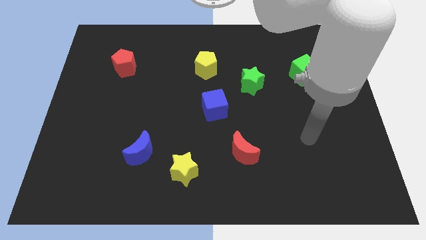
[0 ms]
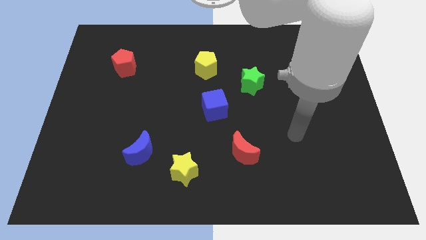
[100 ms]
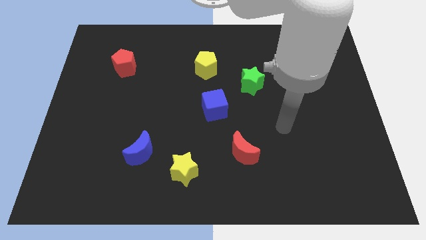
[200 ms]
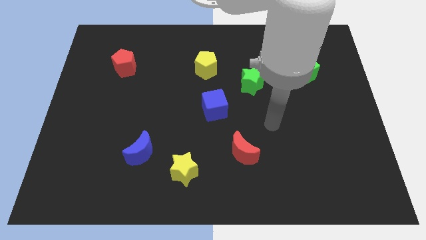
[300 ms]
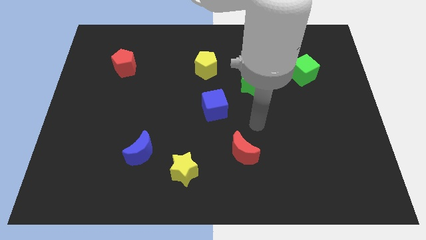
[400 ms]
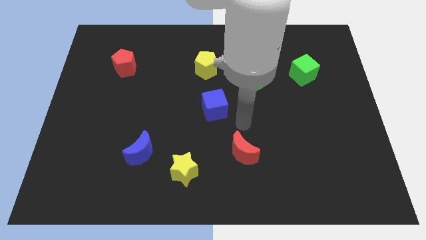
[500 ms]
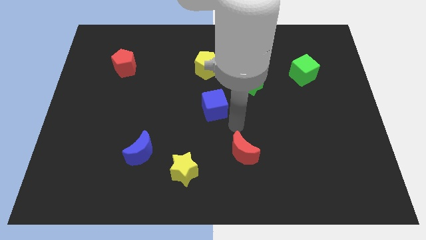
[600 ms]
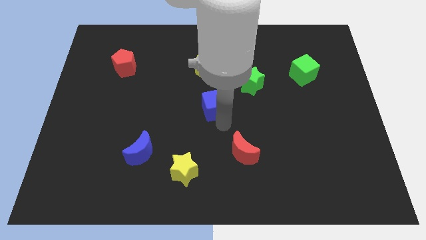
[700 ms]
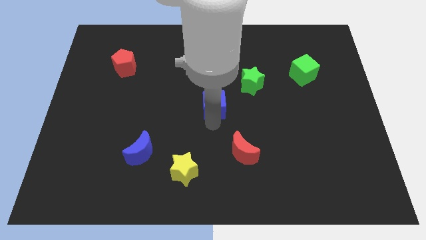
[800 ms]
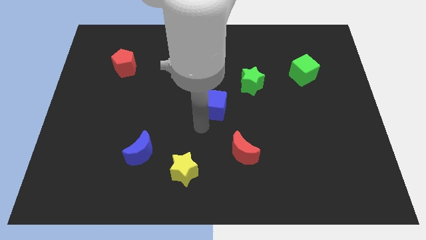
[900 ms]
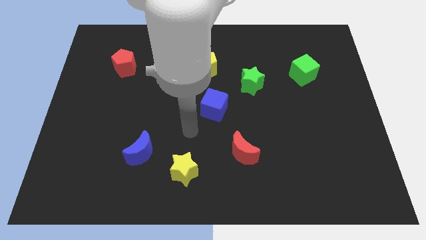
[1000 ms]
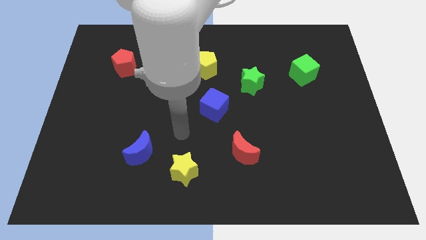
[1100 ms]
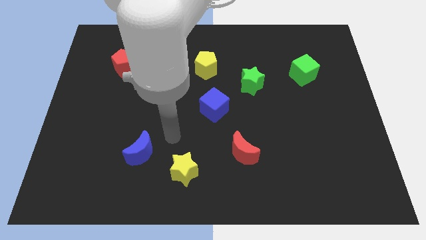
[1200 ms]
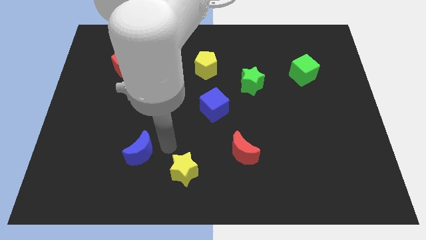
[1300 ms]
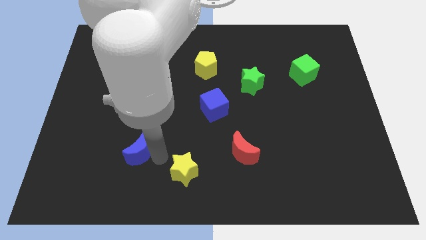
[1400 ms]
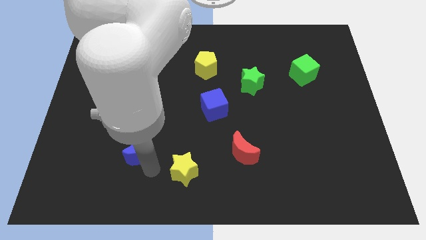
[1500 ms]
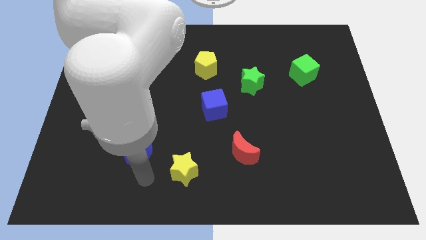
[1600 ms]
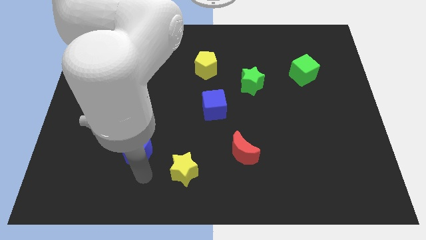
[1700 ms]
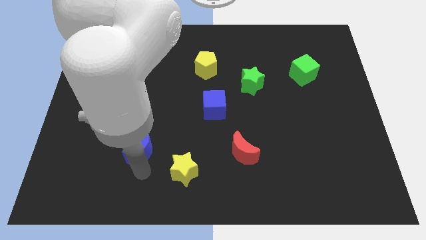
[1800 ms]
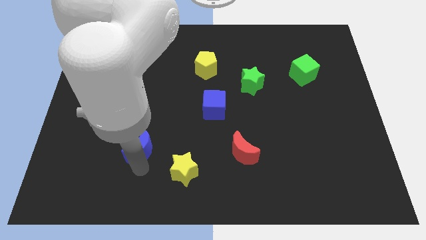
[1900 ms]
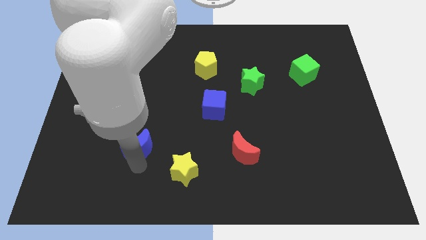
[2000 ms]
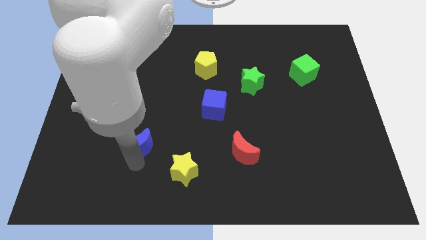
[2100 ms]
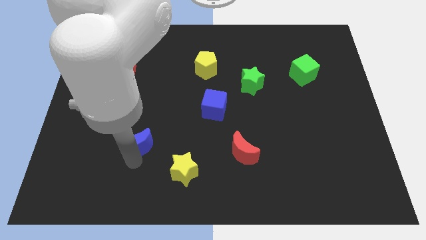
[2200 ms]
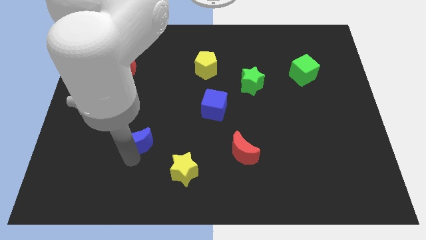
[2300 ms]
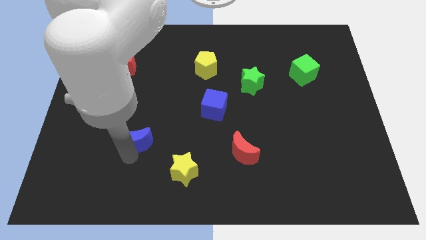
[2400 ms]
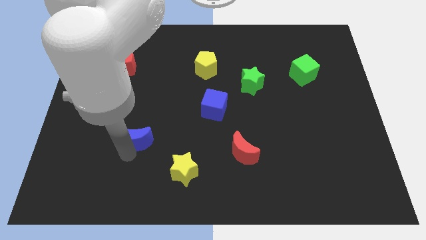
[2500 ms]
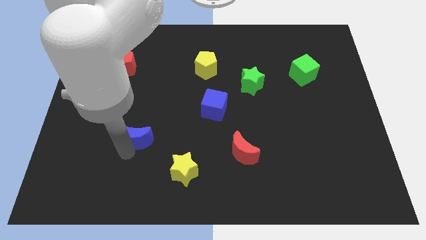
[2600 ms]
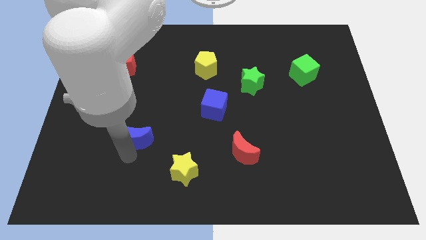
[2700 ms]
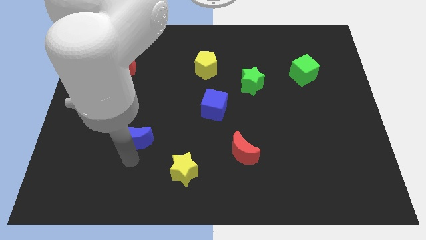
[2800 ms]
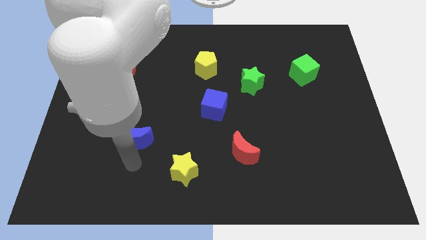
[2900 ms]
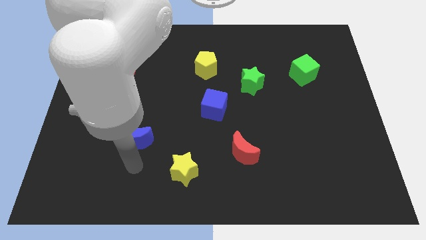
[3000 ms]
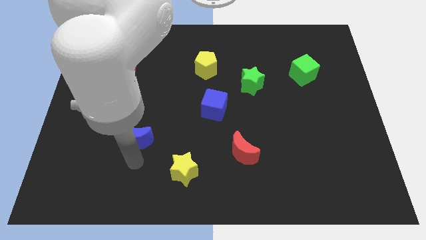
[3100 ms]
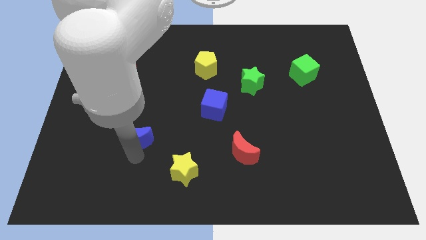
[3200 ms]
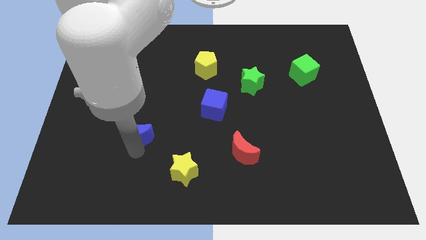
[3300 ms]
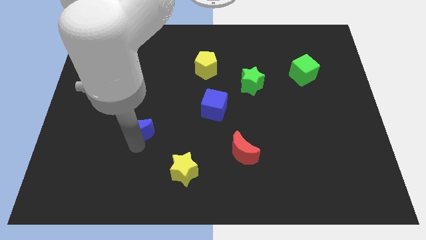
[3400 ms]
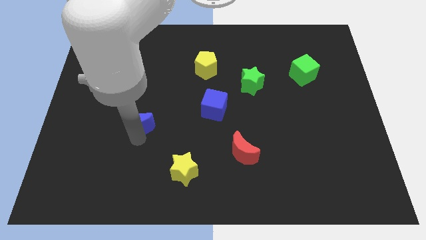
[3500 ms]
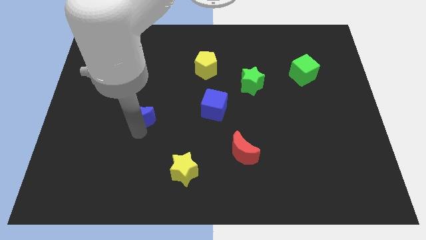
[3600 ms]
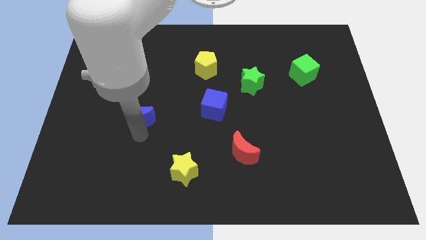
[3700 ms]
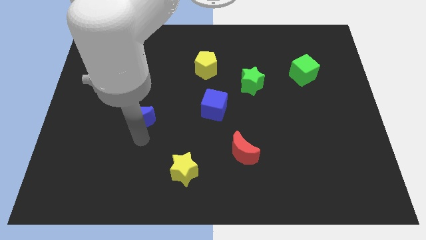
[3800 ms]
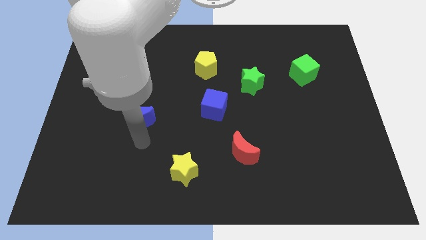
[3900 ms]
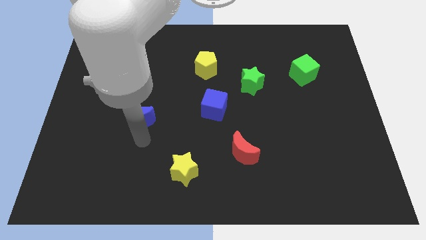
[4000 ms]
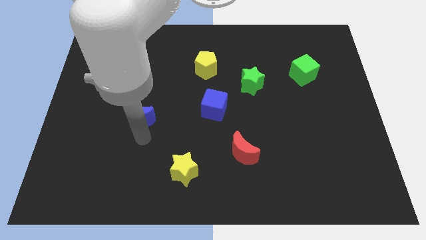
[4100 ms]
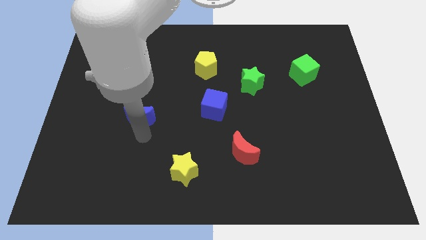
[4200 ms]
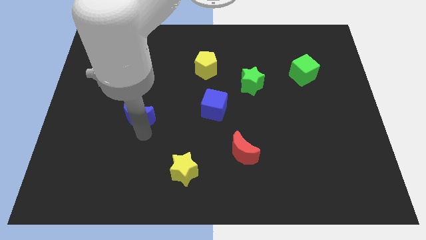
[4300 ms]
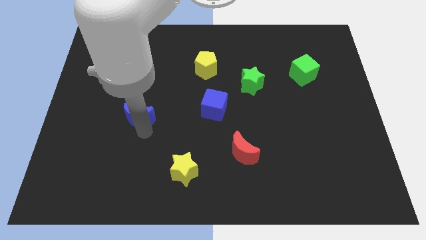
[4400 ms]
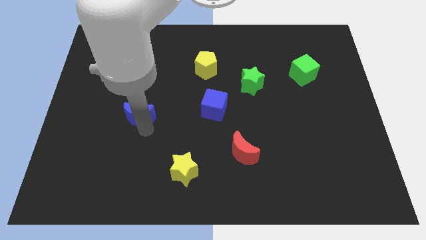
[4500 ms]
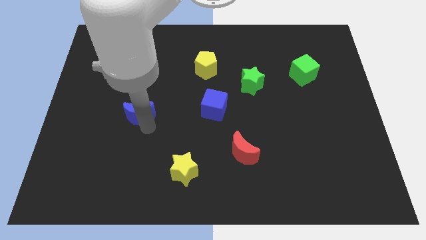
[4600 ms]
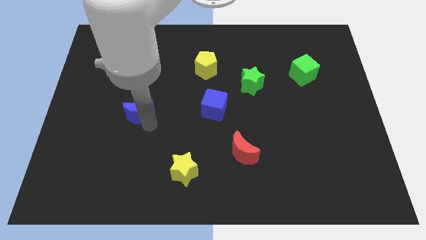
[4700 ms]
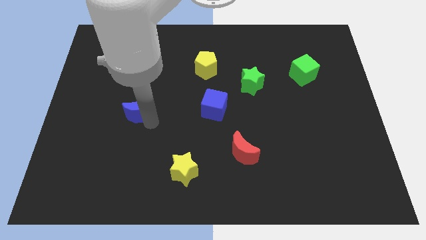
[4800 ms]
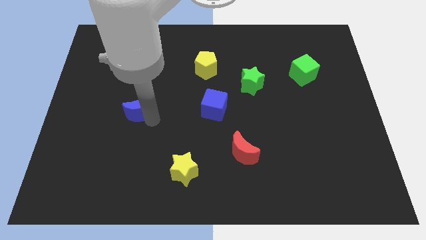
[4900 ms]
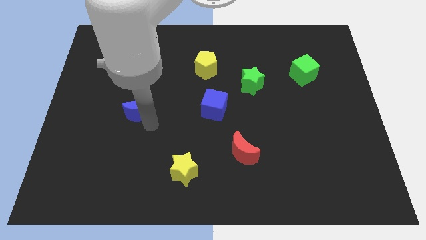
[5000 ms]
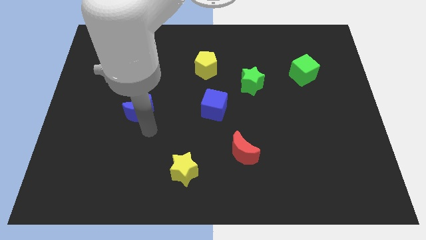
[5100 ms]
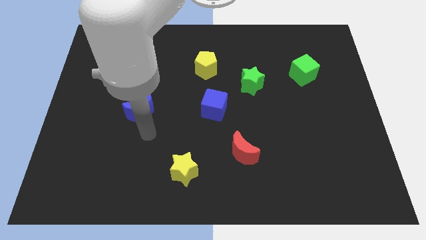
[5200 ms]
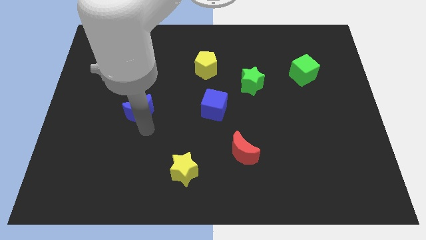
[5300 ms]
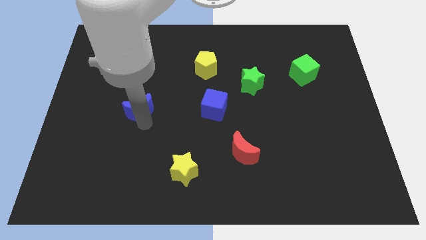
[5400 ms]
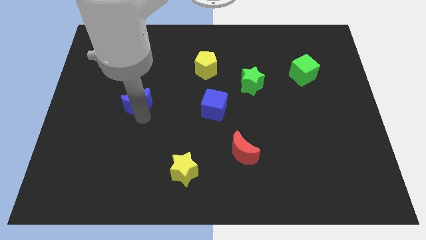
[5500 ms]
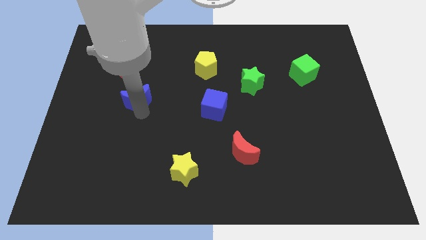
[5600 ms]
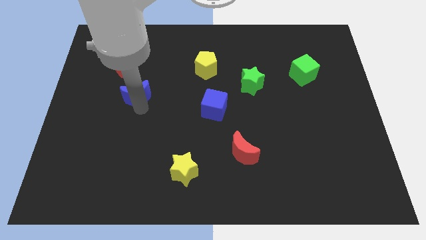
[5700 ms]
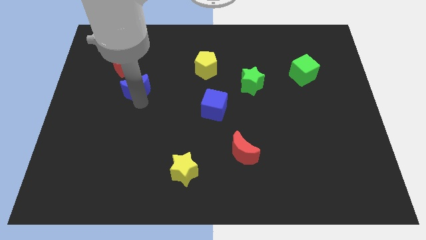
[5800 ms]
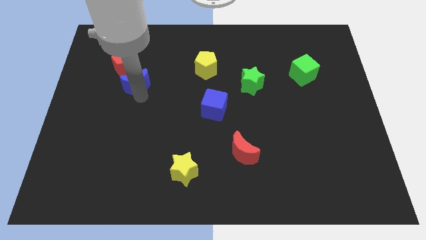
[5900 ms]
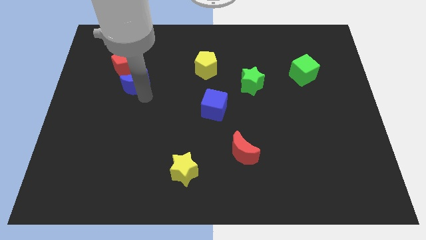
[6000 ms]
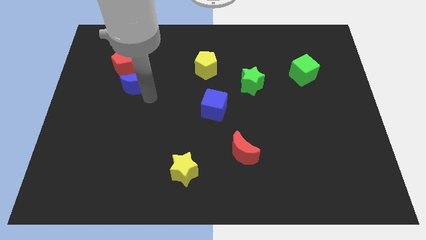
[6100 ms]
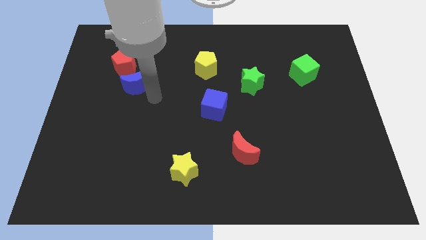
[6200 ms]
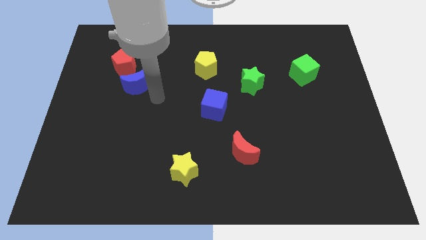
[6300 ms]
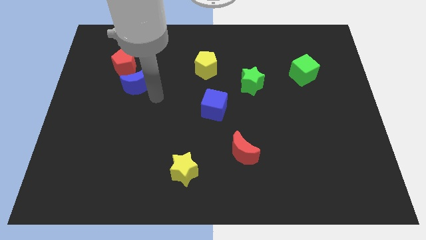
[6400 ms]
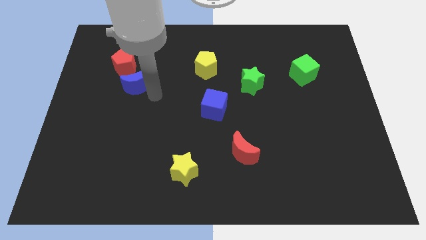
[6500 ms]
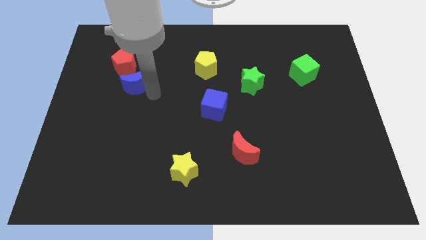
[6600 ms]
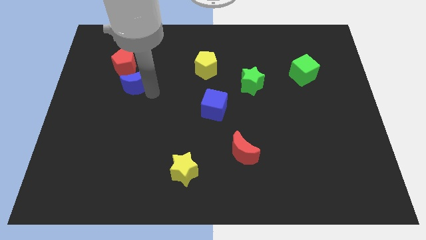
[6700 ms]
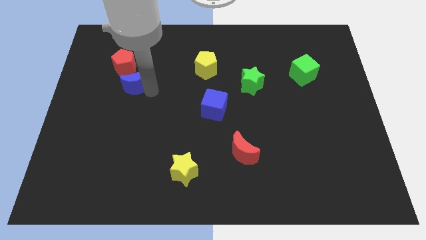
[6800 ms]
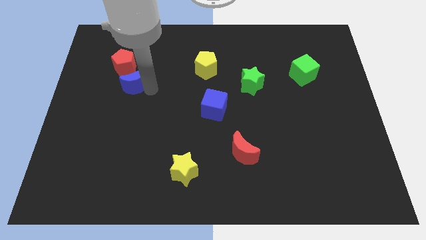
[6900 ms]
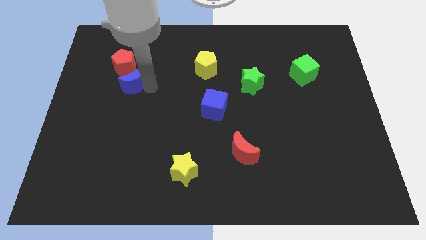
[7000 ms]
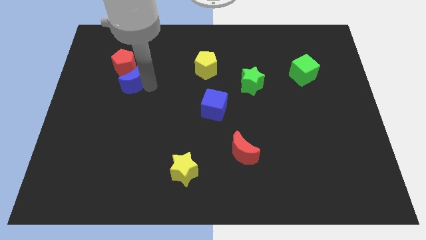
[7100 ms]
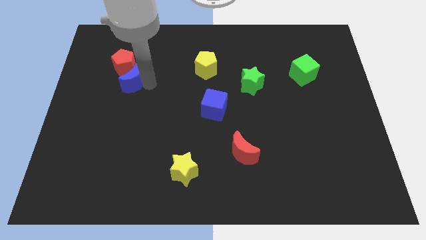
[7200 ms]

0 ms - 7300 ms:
move the blue moon towards the red pentagon
